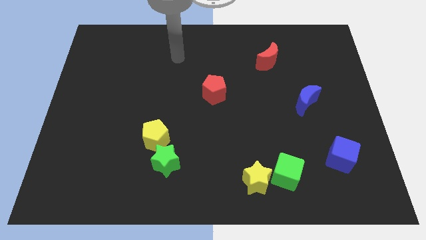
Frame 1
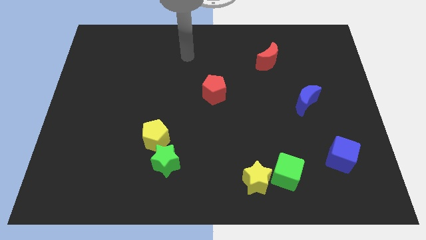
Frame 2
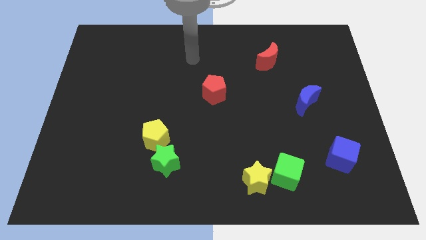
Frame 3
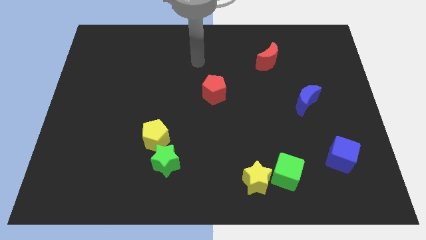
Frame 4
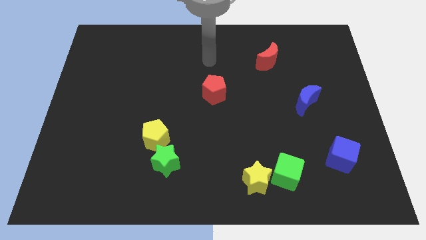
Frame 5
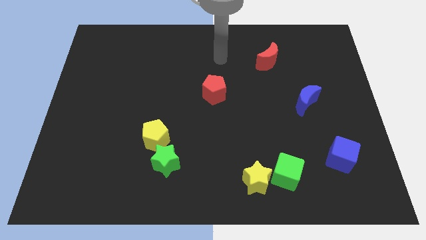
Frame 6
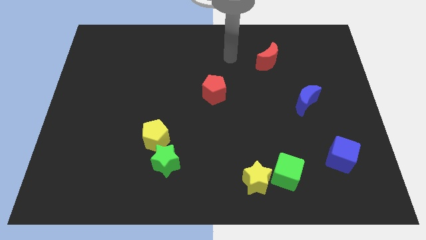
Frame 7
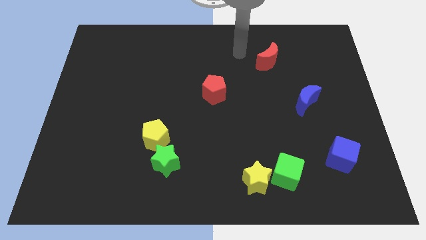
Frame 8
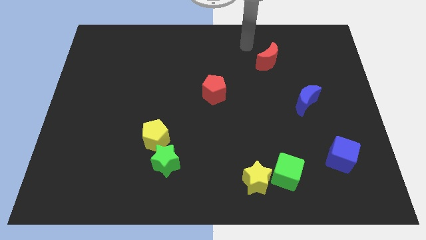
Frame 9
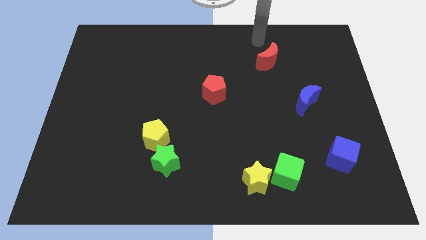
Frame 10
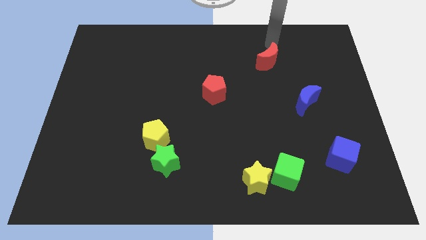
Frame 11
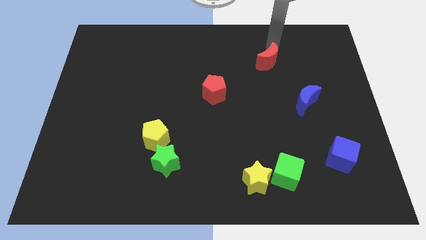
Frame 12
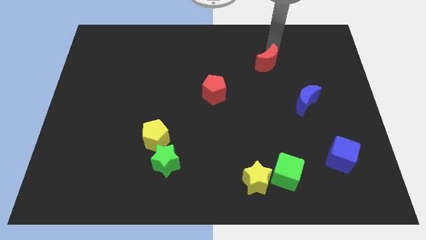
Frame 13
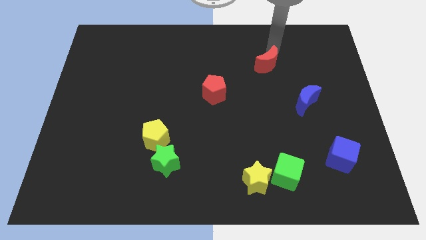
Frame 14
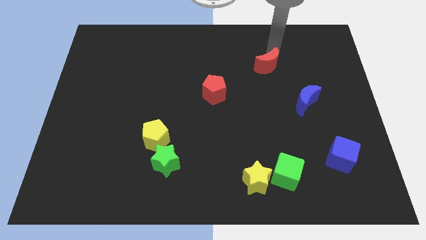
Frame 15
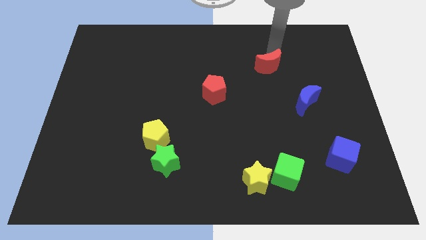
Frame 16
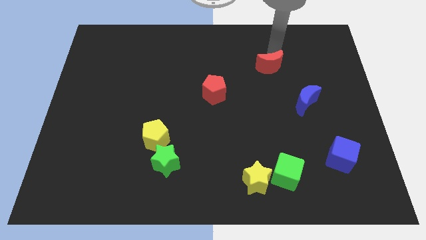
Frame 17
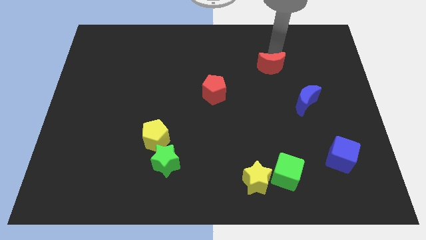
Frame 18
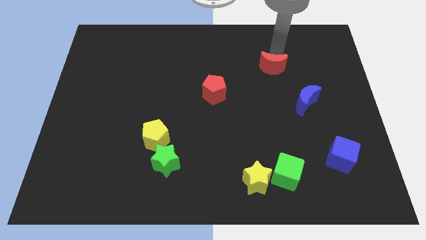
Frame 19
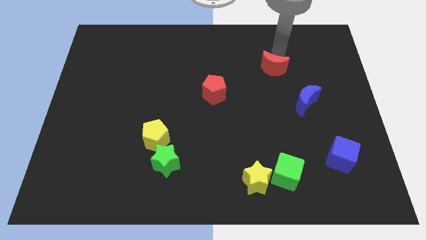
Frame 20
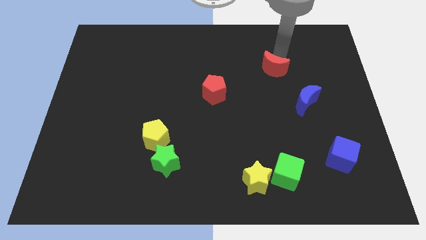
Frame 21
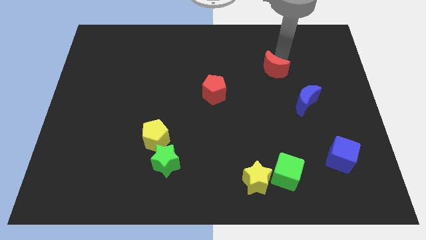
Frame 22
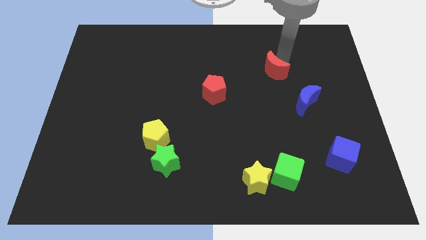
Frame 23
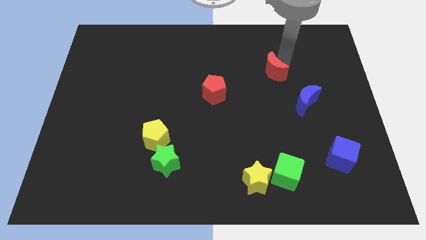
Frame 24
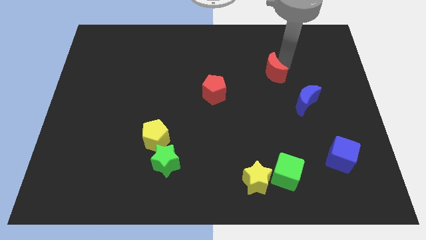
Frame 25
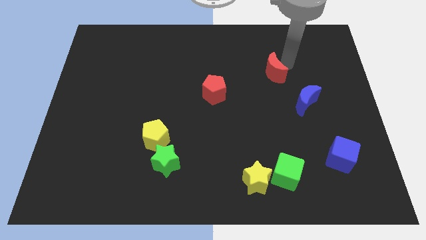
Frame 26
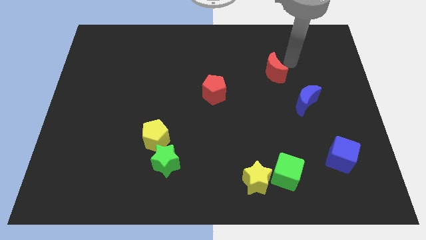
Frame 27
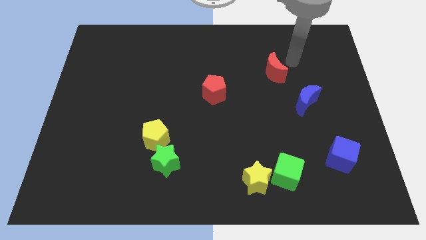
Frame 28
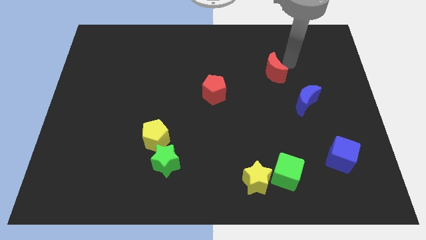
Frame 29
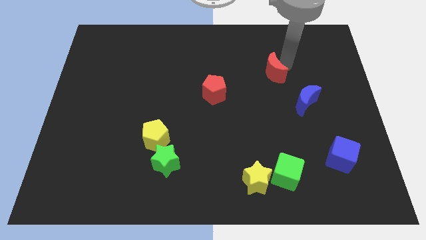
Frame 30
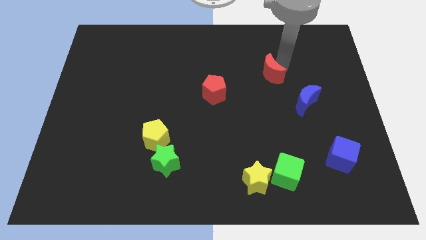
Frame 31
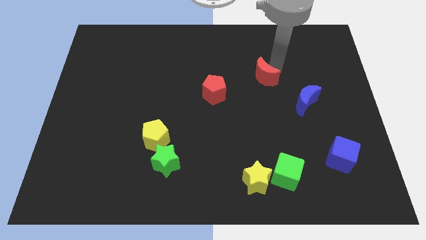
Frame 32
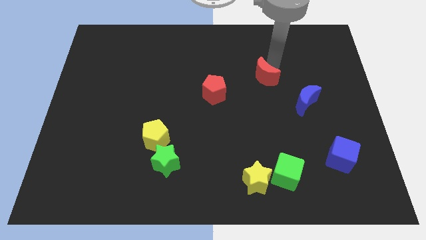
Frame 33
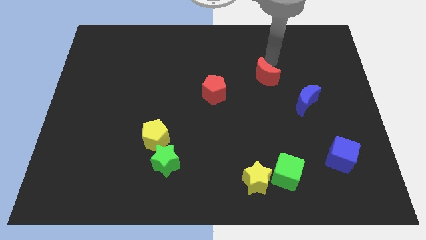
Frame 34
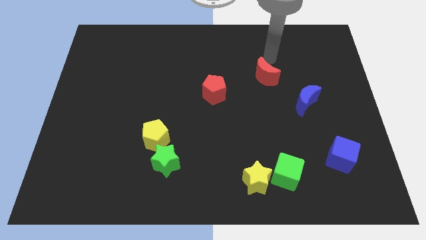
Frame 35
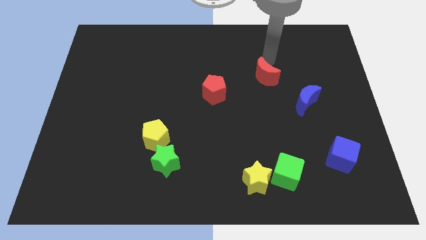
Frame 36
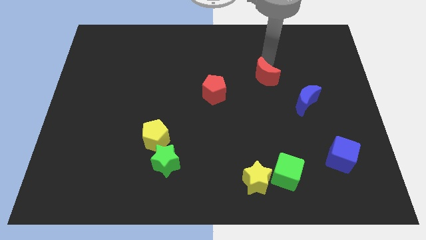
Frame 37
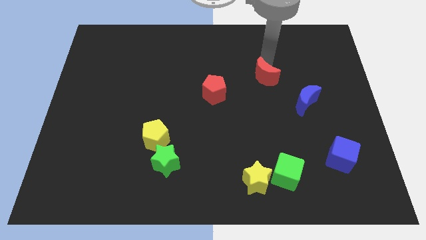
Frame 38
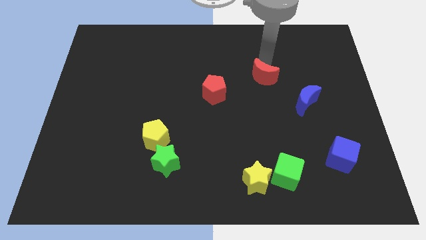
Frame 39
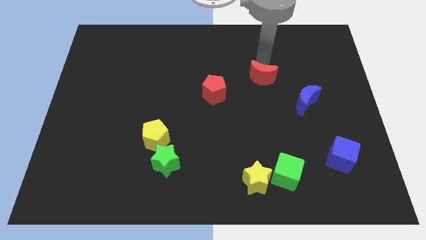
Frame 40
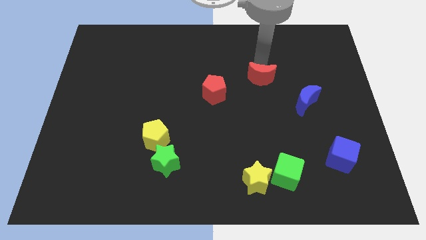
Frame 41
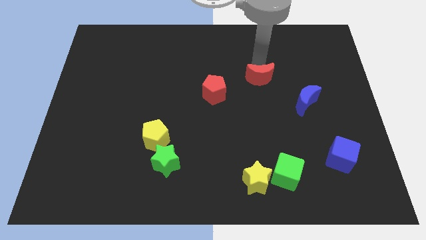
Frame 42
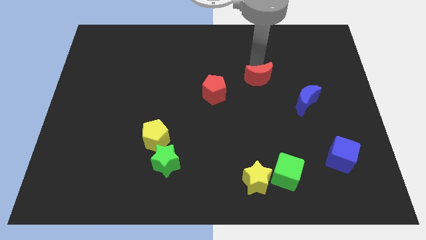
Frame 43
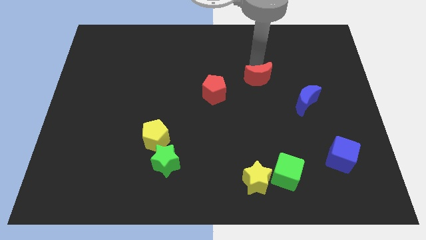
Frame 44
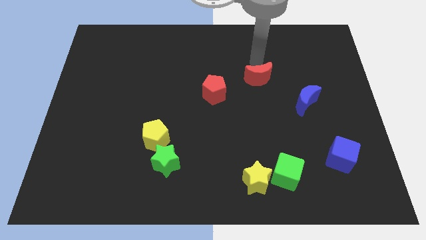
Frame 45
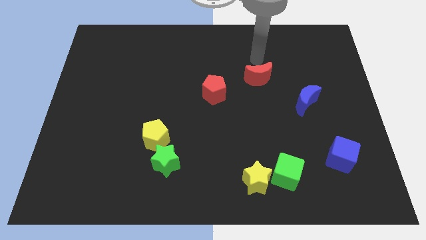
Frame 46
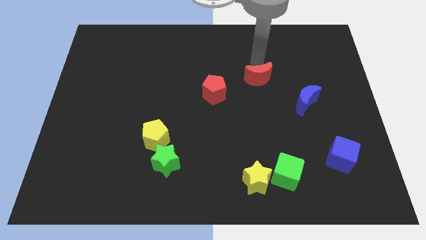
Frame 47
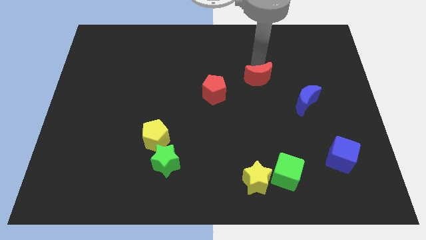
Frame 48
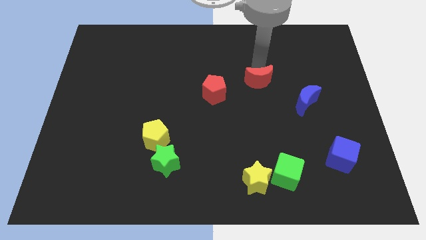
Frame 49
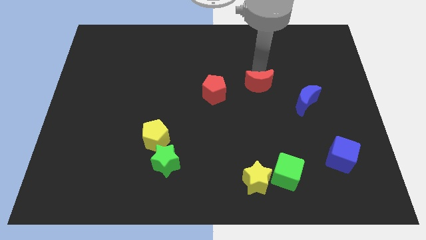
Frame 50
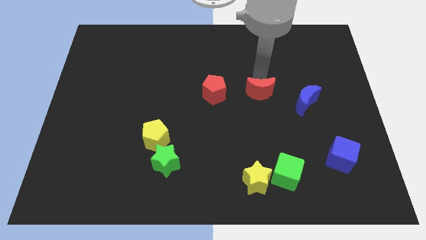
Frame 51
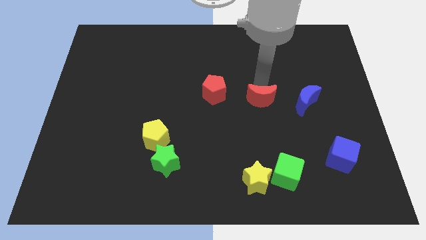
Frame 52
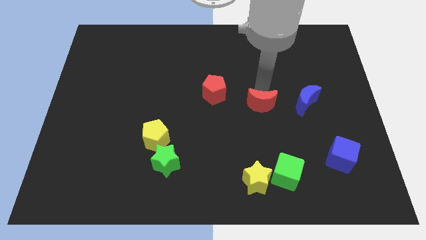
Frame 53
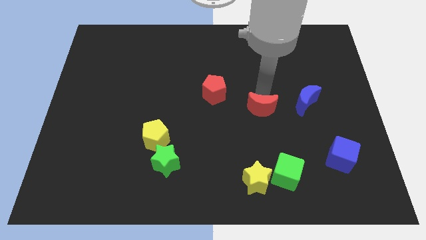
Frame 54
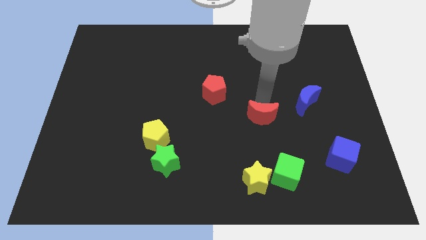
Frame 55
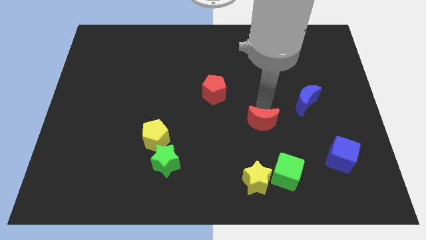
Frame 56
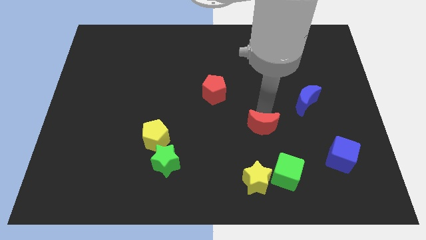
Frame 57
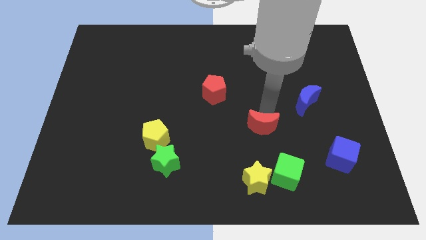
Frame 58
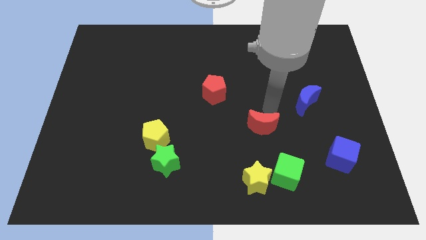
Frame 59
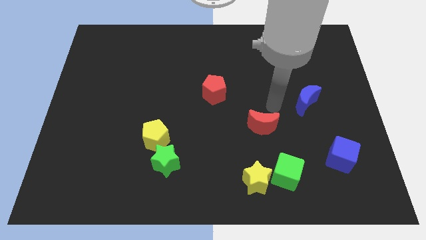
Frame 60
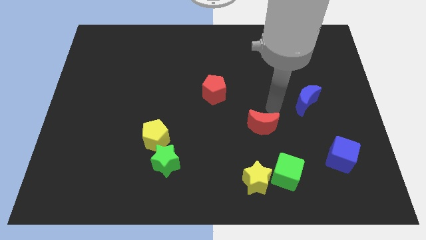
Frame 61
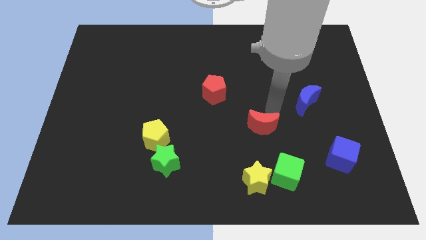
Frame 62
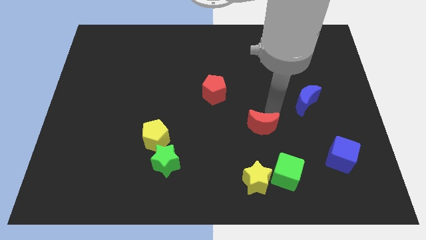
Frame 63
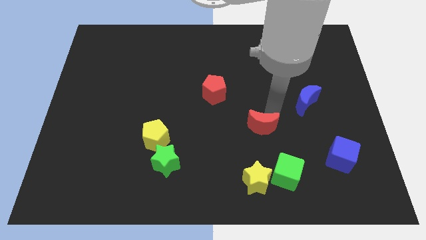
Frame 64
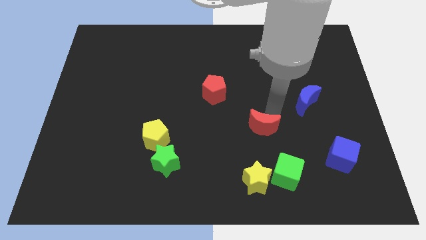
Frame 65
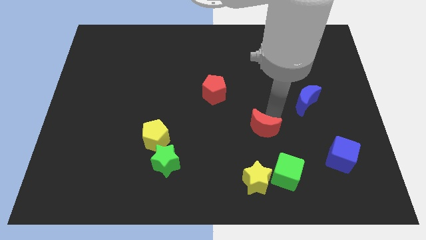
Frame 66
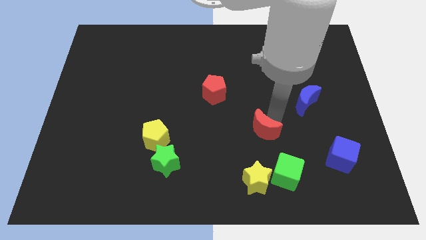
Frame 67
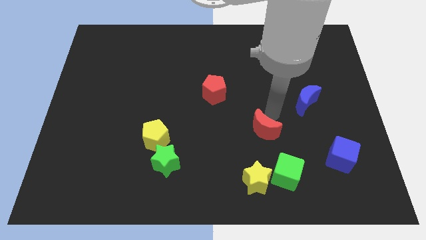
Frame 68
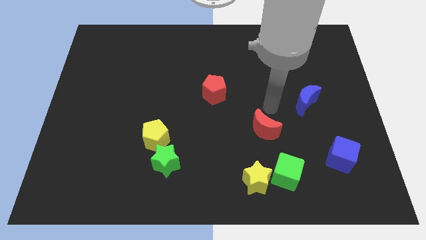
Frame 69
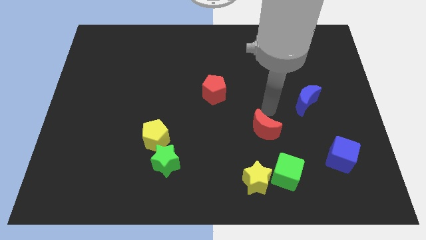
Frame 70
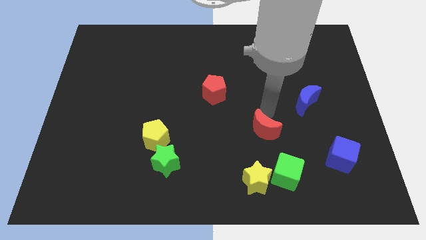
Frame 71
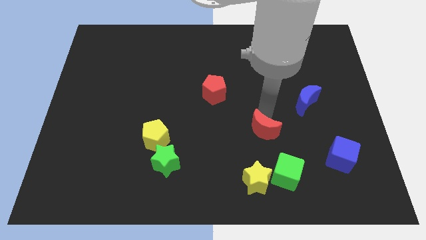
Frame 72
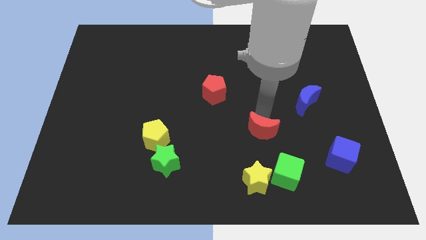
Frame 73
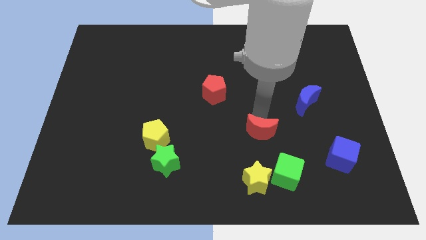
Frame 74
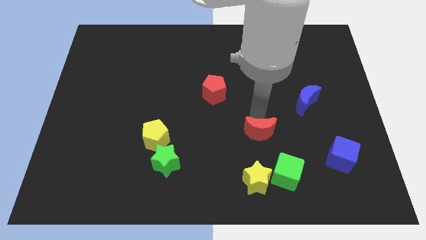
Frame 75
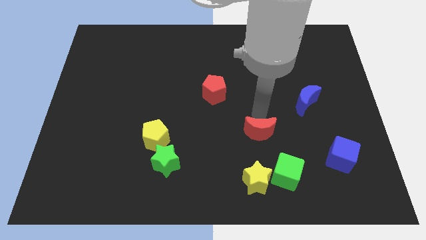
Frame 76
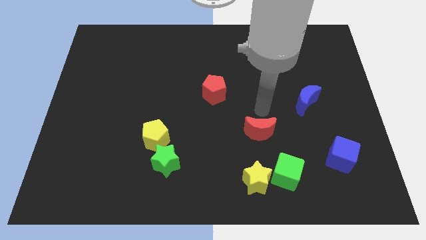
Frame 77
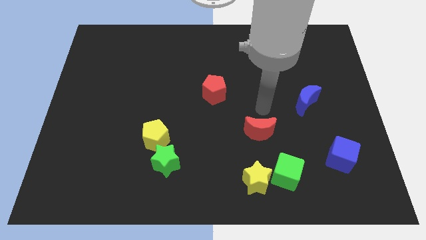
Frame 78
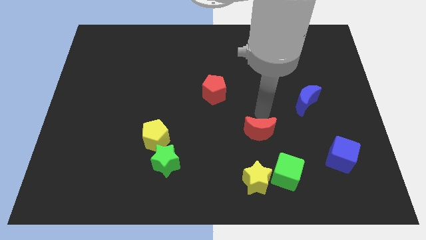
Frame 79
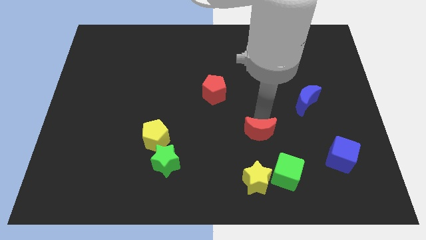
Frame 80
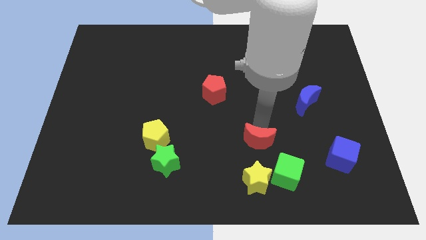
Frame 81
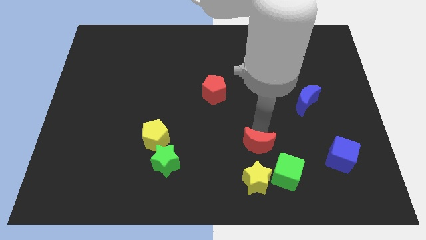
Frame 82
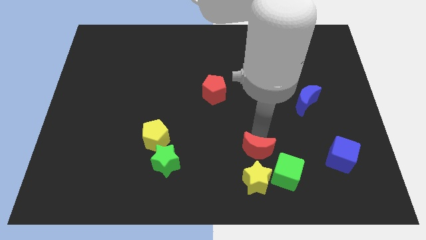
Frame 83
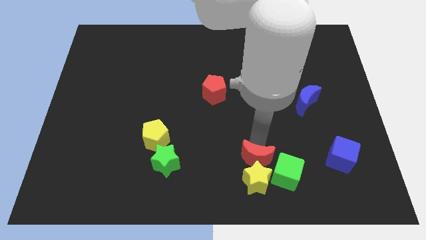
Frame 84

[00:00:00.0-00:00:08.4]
move the red moon towards the yellow star
